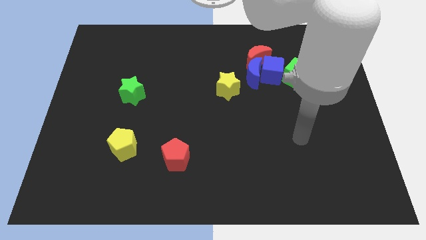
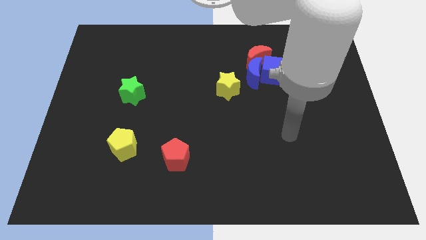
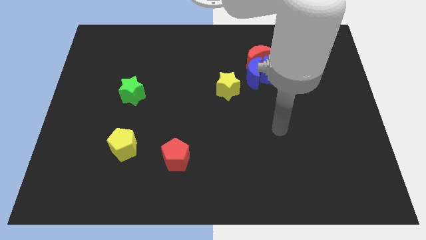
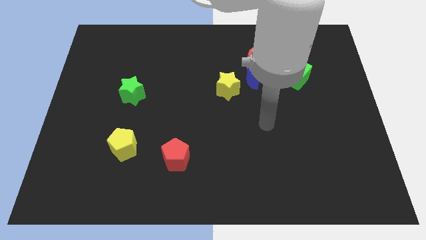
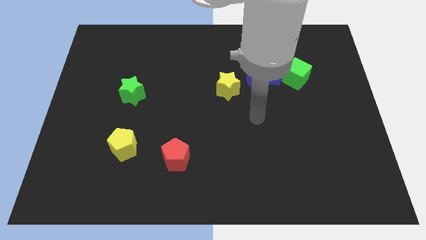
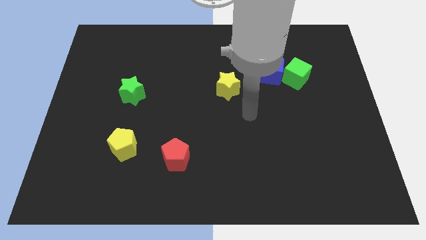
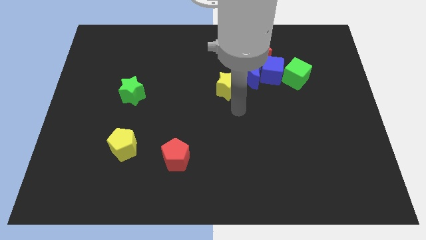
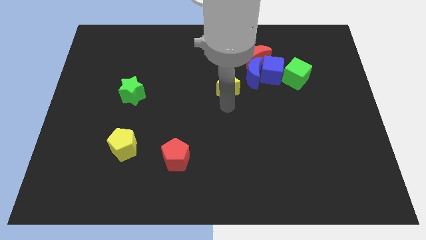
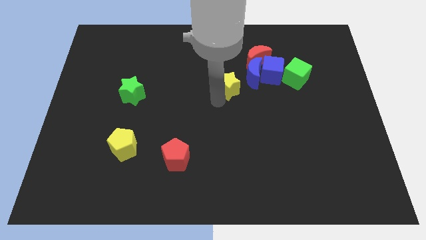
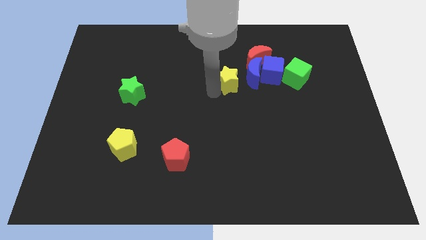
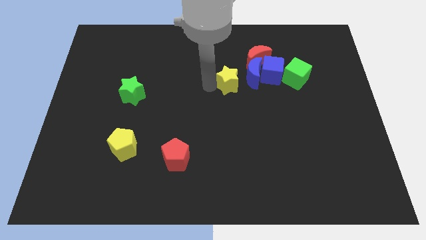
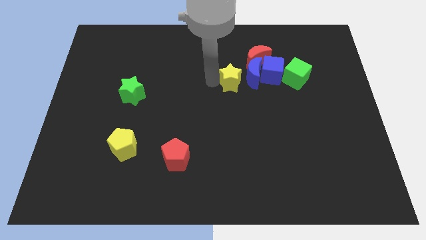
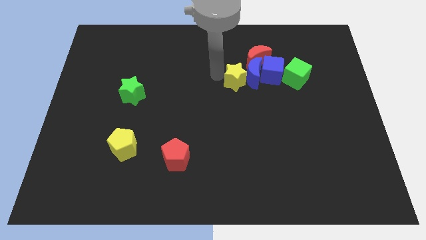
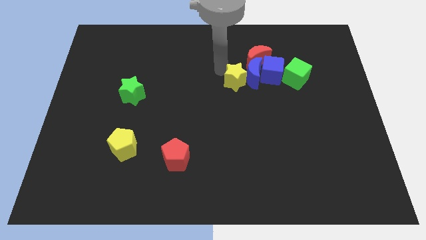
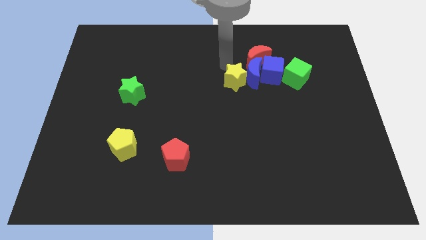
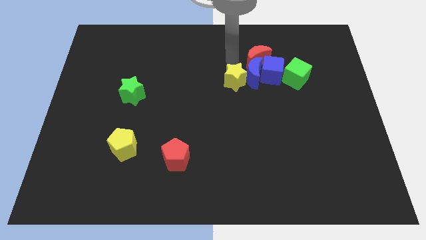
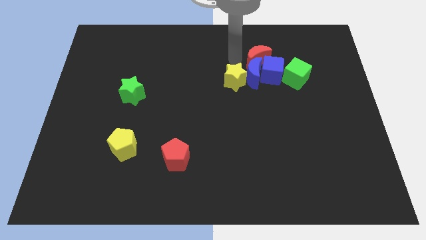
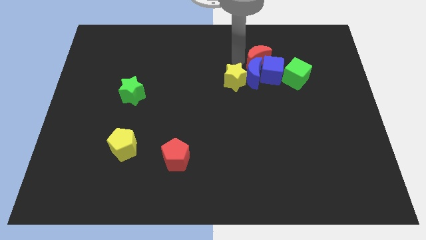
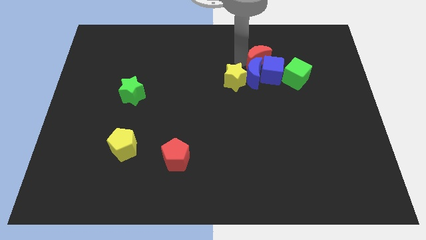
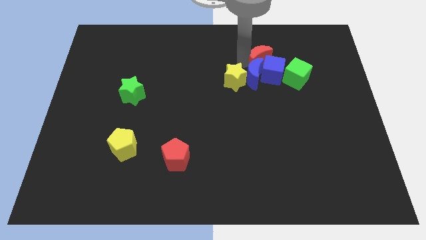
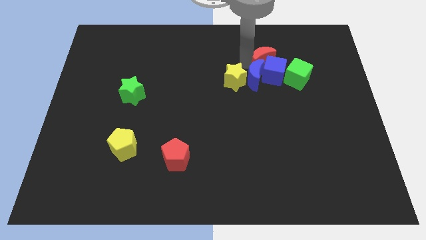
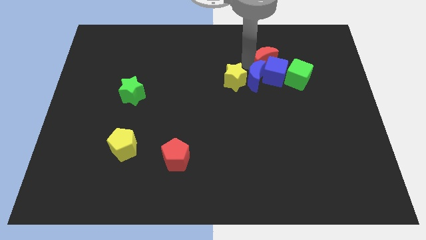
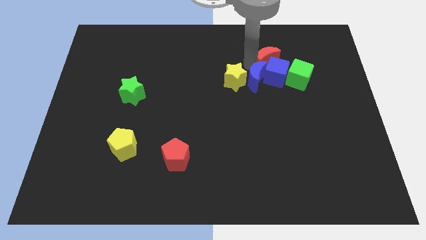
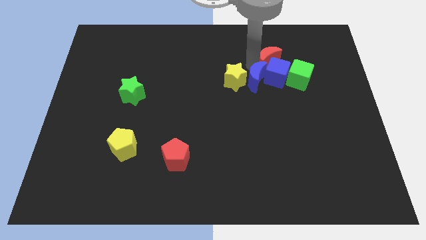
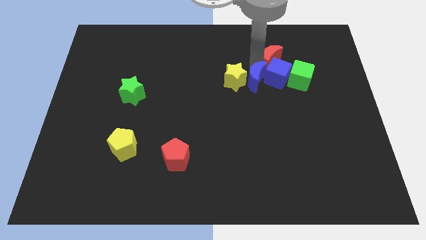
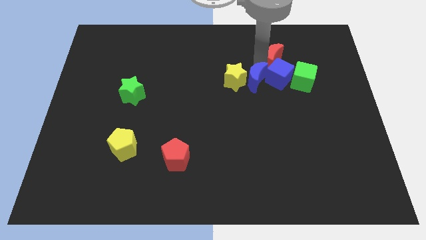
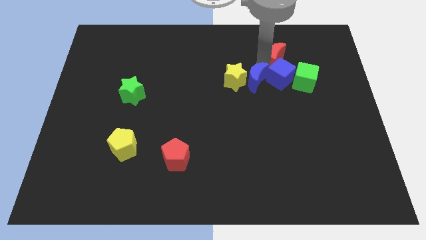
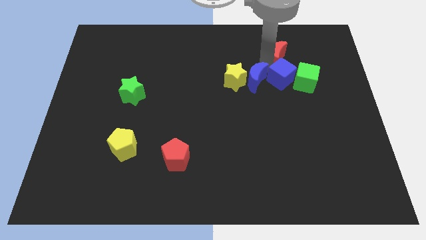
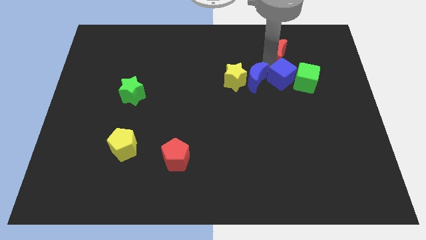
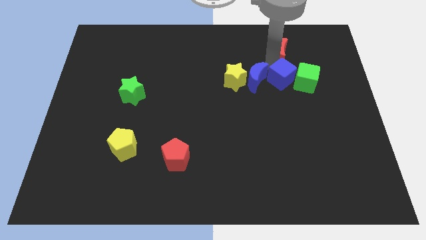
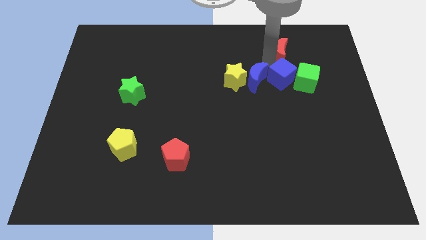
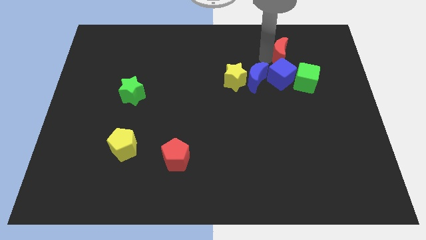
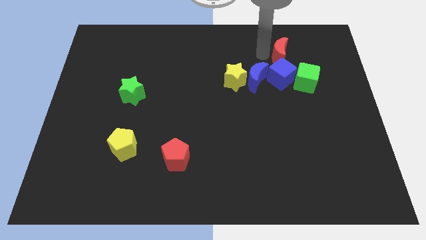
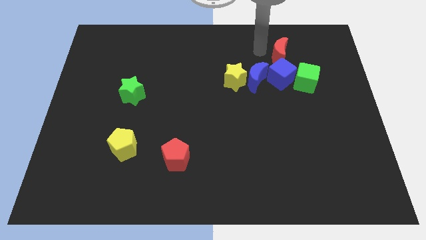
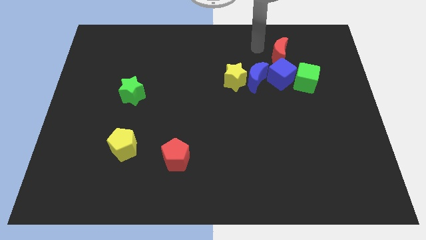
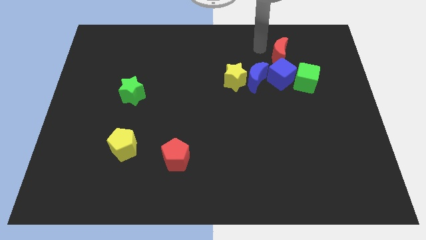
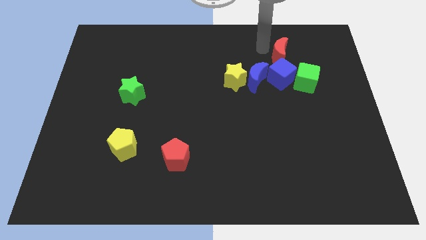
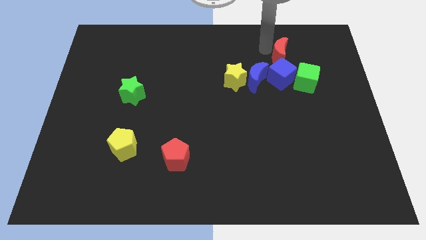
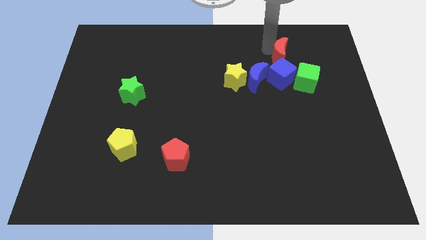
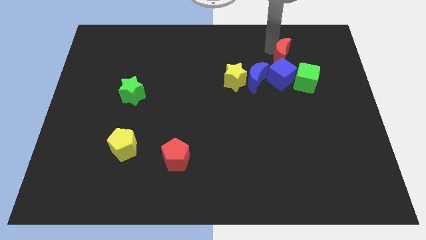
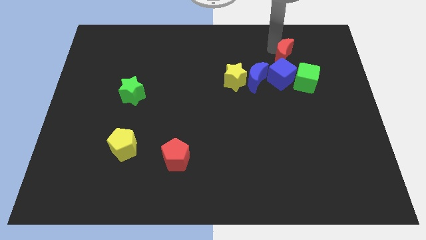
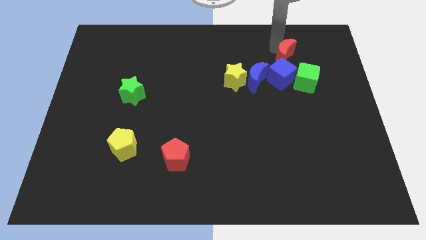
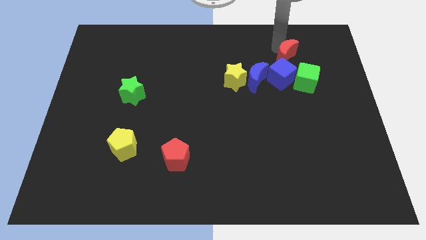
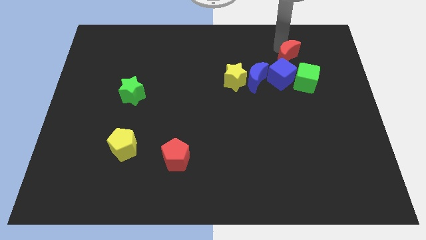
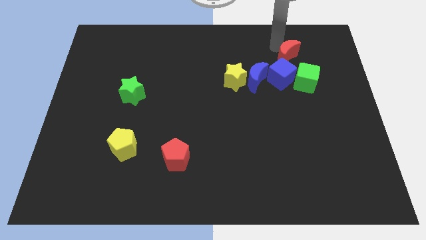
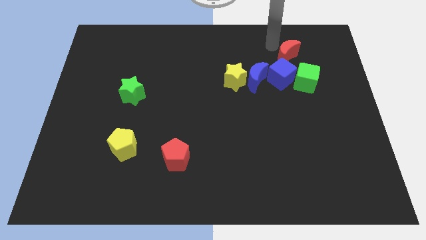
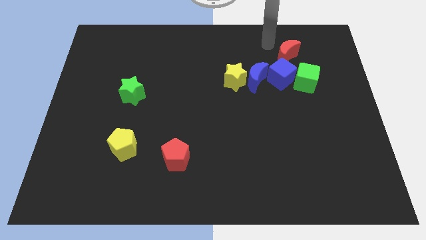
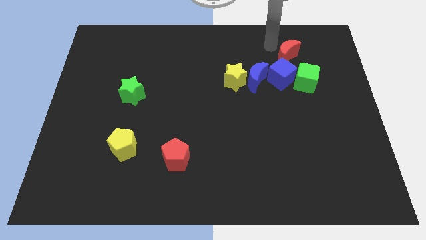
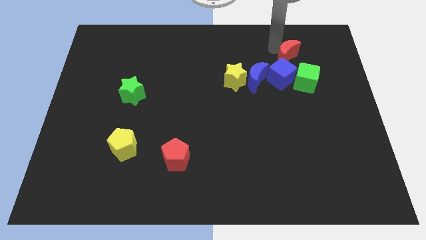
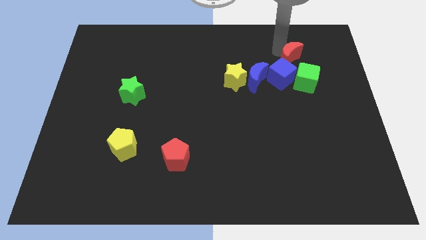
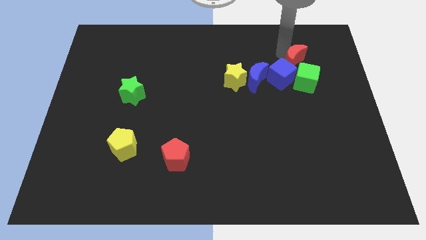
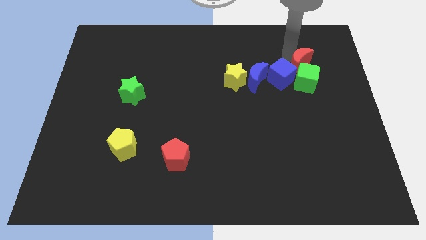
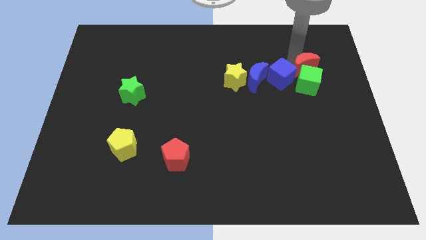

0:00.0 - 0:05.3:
move the red moon slightly downwards and right

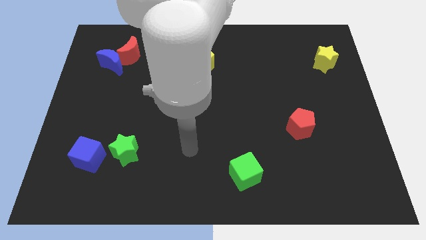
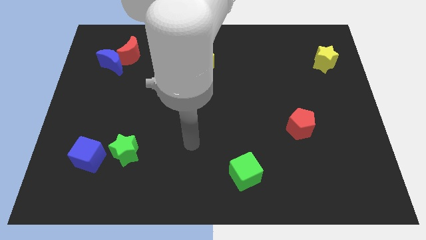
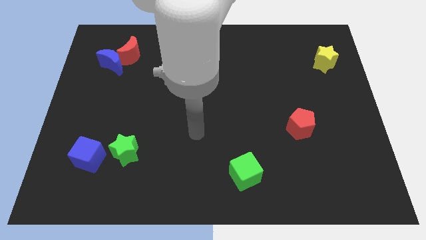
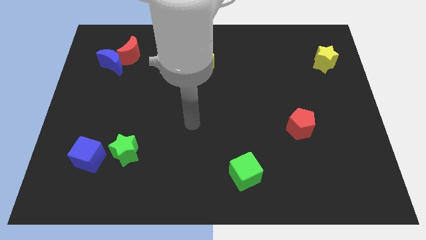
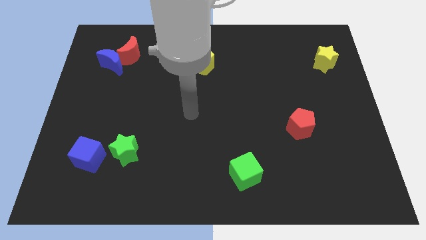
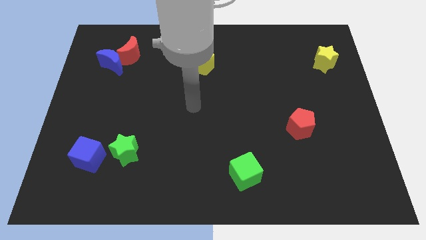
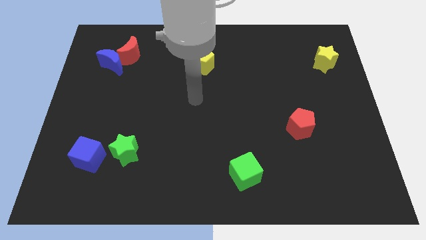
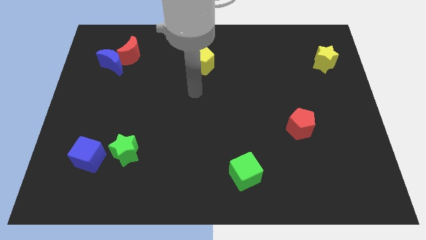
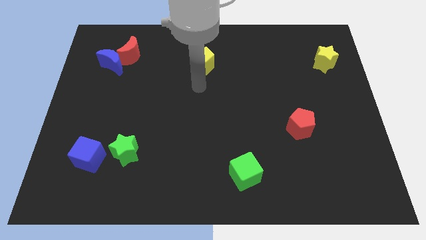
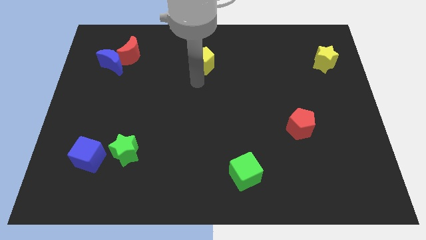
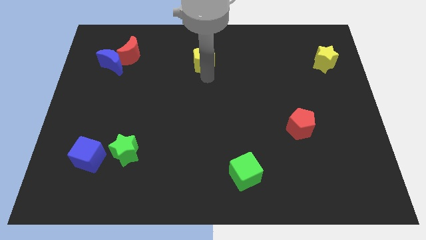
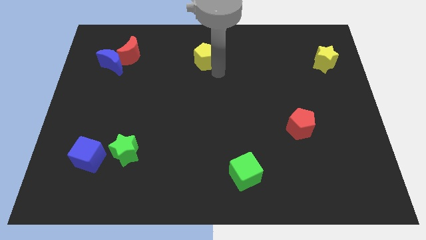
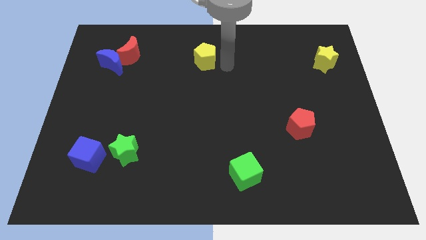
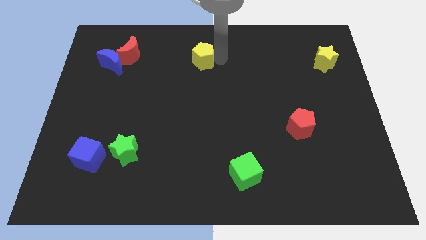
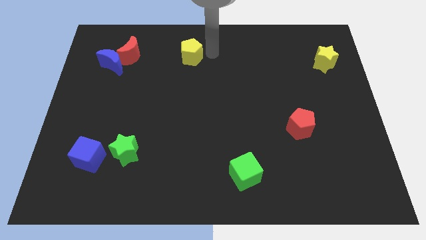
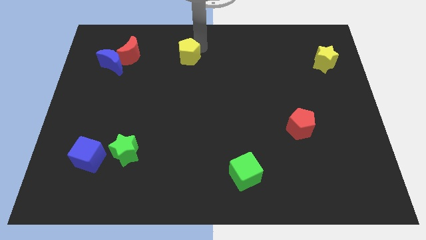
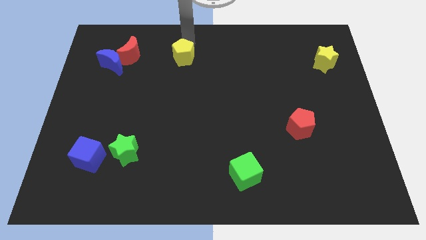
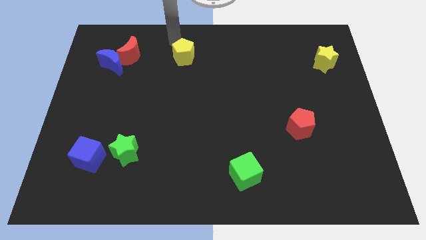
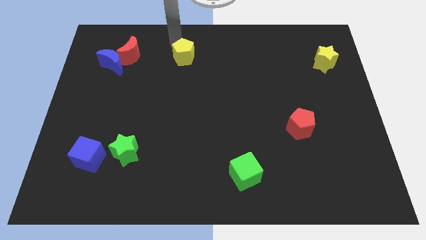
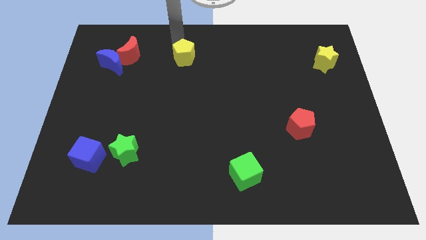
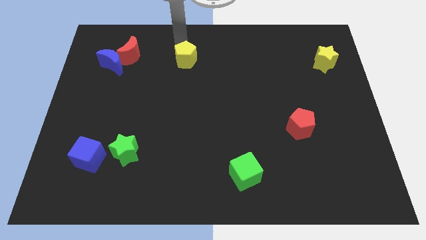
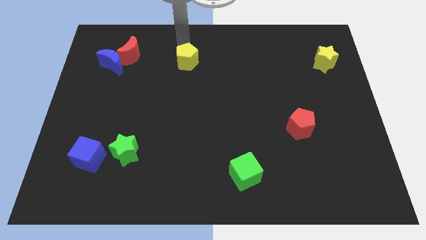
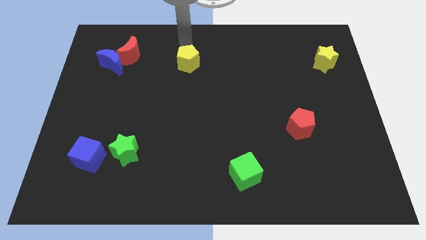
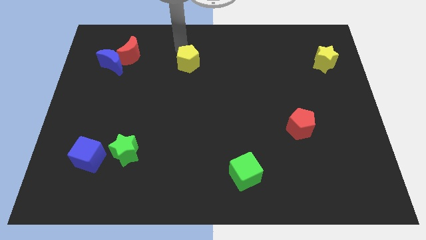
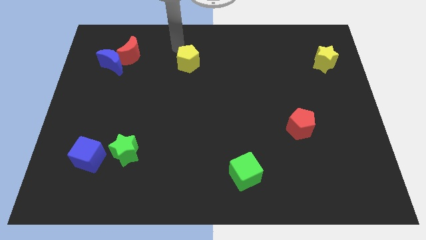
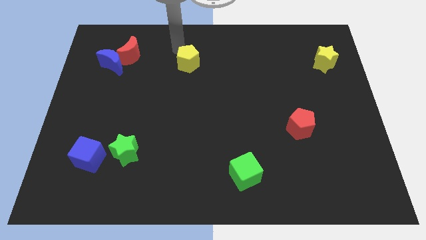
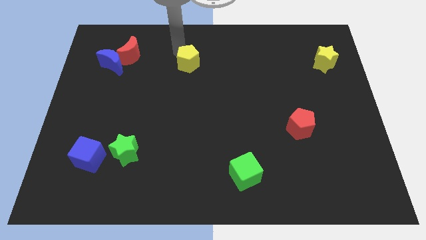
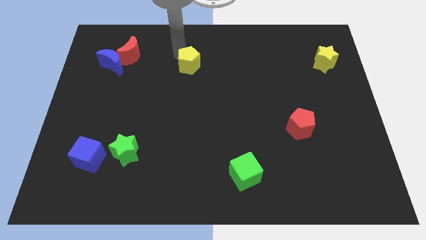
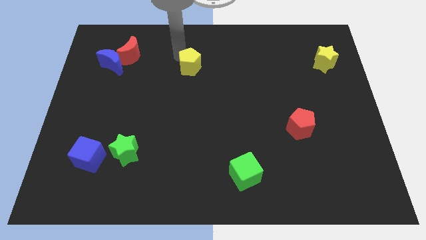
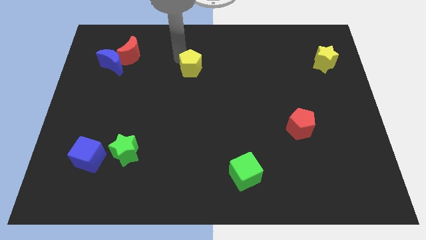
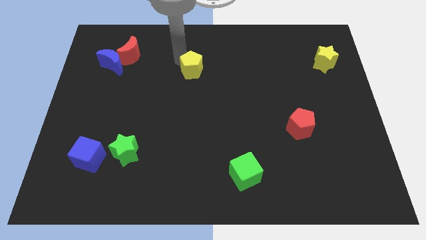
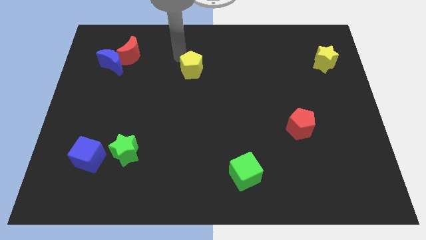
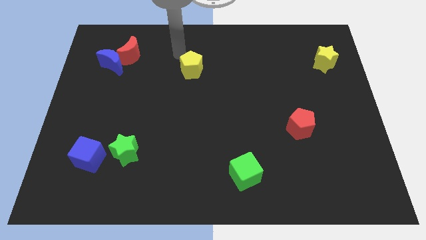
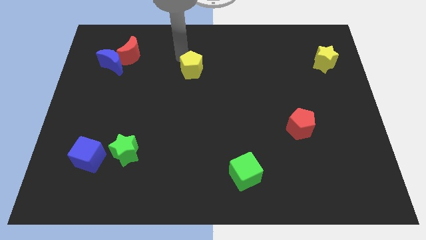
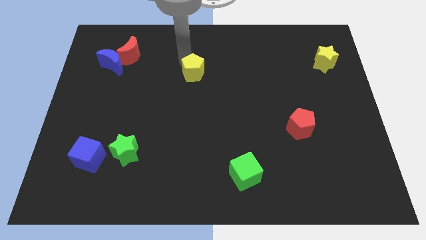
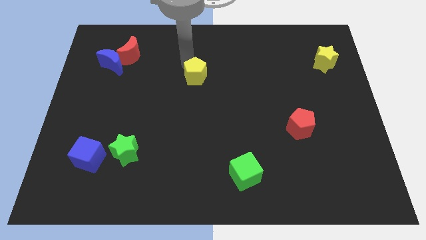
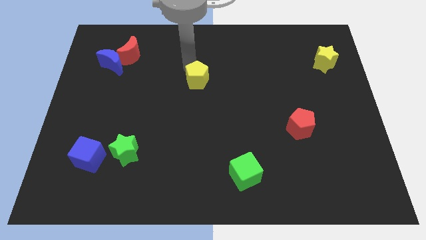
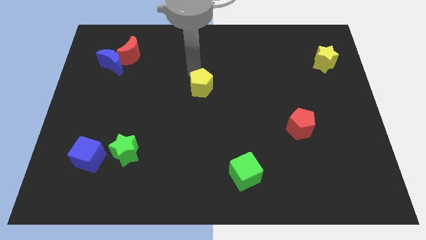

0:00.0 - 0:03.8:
slightly push the yellow pentagon down
